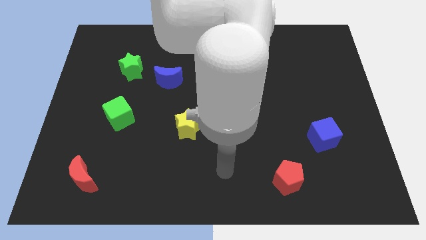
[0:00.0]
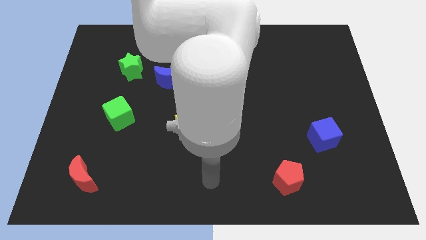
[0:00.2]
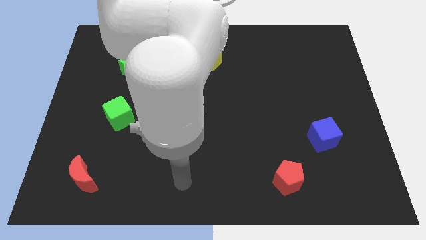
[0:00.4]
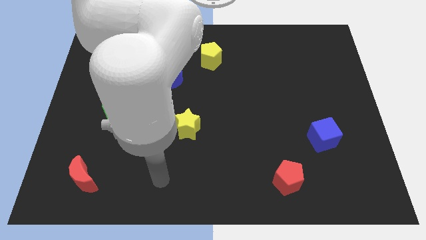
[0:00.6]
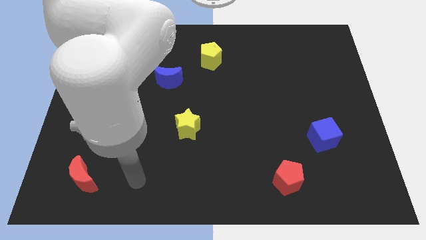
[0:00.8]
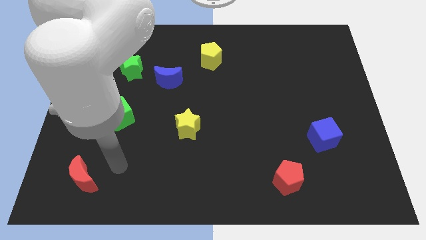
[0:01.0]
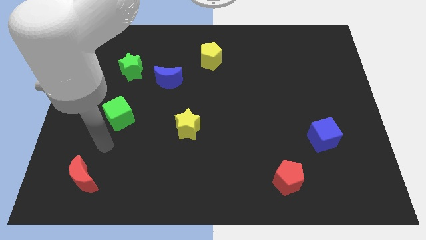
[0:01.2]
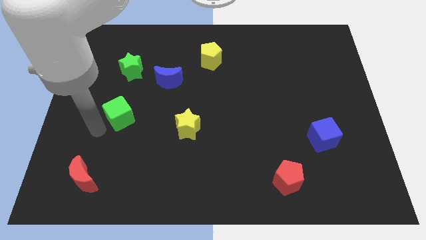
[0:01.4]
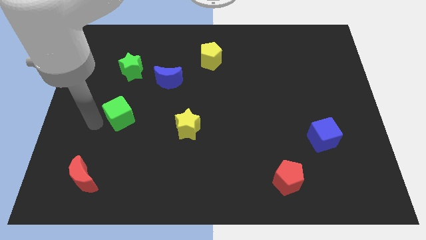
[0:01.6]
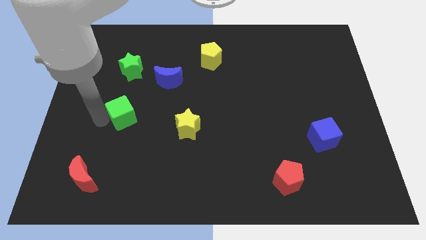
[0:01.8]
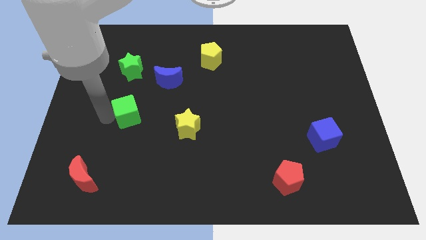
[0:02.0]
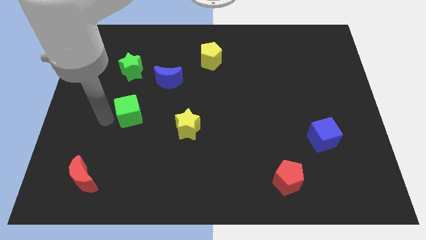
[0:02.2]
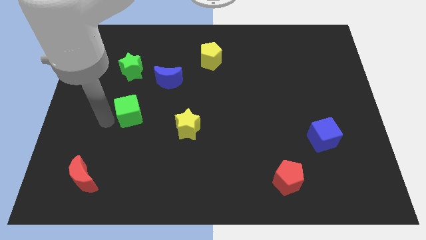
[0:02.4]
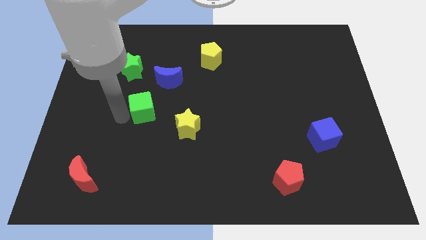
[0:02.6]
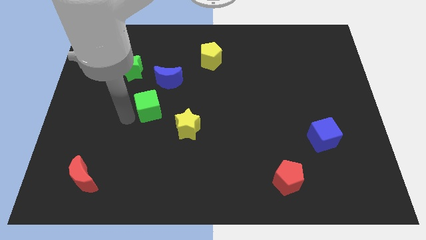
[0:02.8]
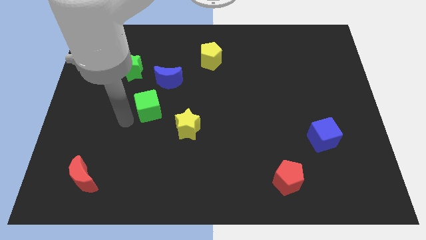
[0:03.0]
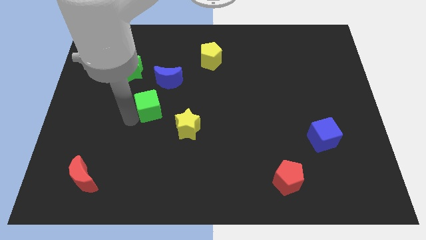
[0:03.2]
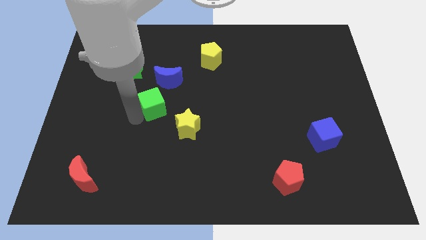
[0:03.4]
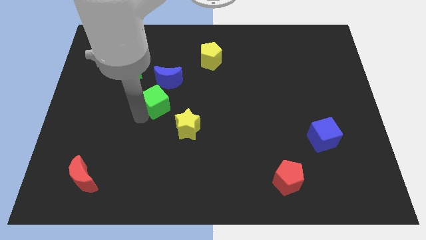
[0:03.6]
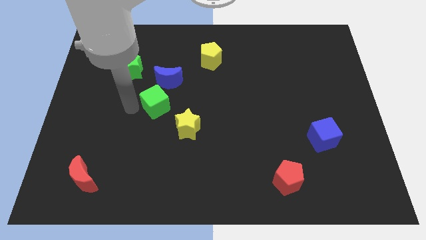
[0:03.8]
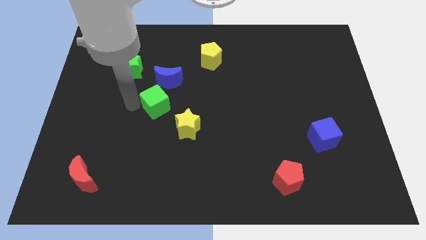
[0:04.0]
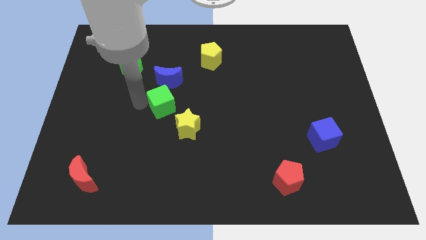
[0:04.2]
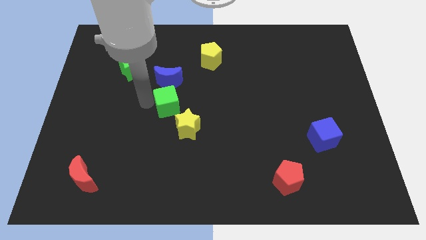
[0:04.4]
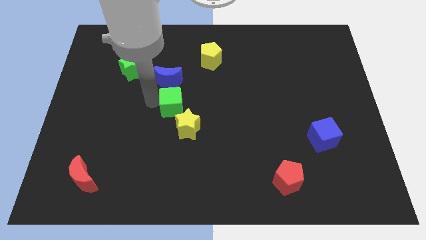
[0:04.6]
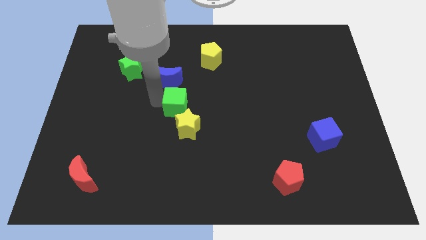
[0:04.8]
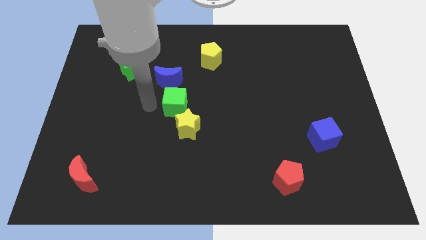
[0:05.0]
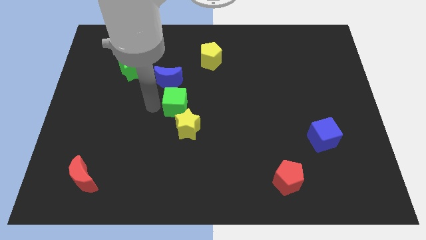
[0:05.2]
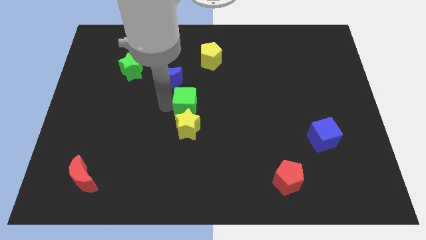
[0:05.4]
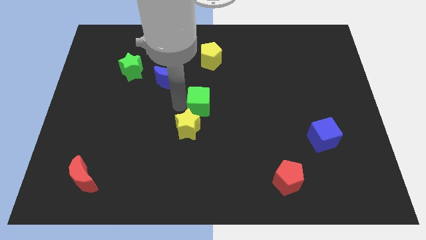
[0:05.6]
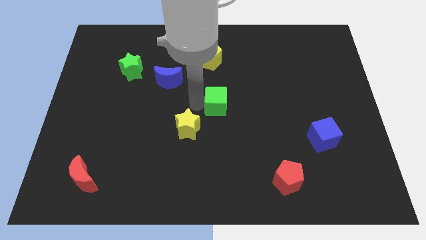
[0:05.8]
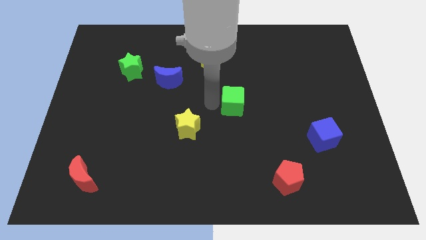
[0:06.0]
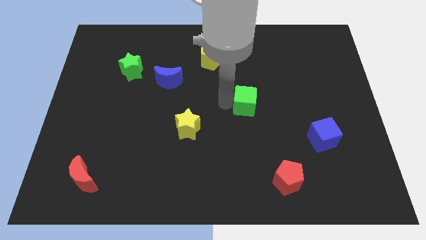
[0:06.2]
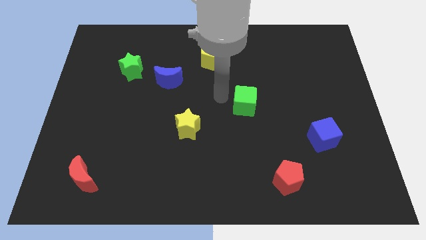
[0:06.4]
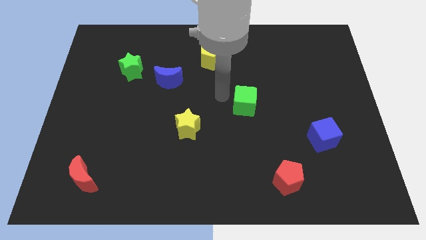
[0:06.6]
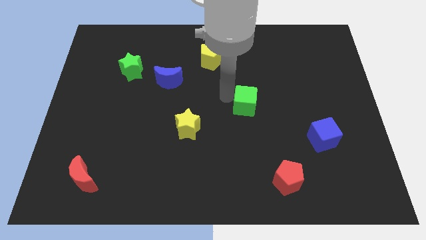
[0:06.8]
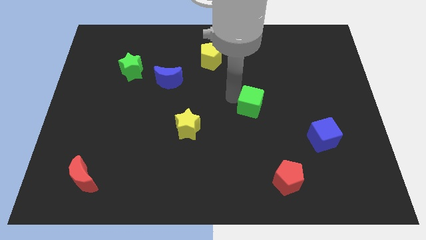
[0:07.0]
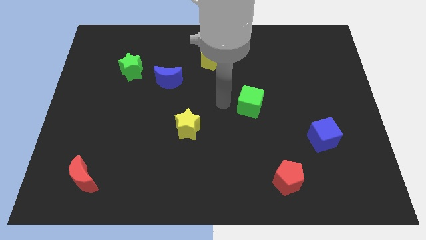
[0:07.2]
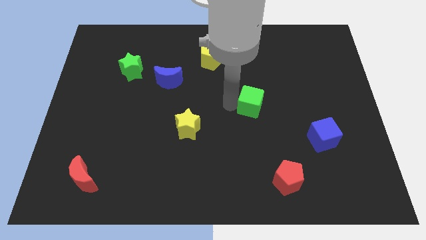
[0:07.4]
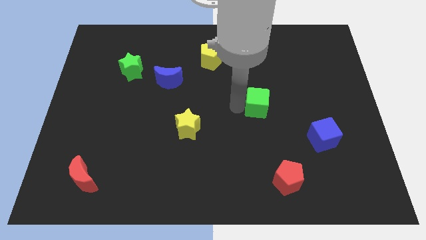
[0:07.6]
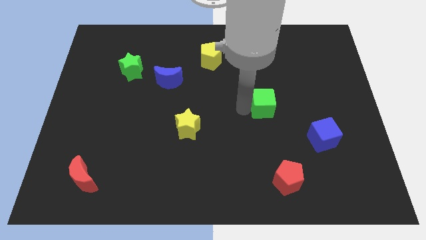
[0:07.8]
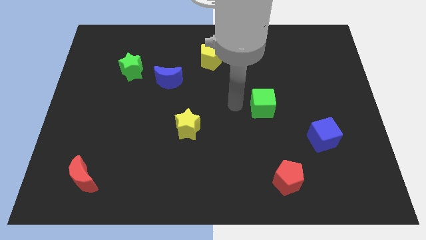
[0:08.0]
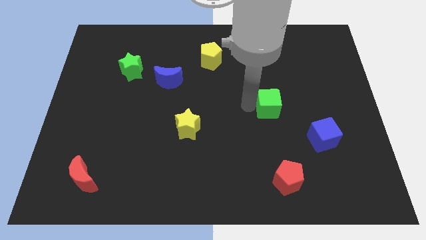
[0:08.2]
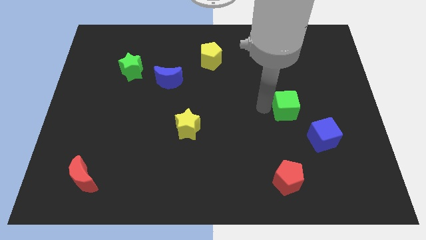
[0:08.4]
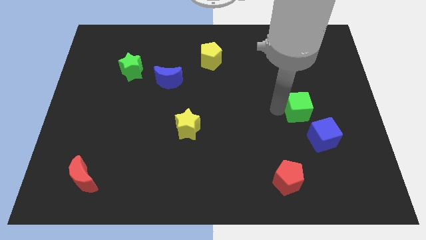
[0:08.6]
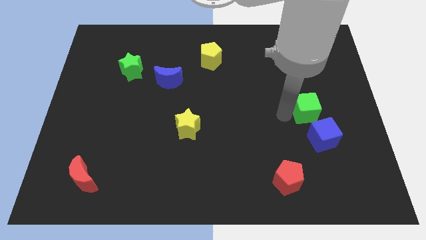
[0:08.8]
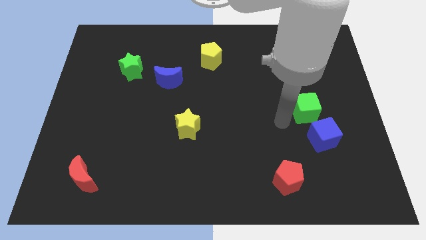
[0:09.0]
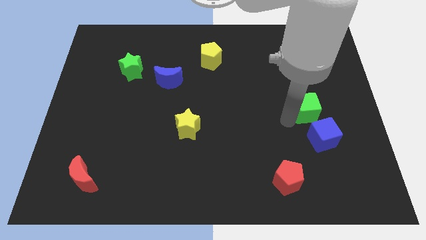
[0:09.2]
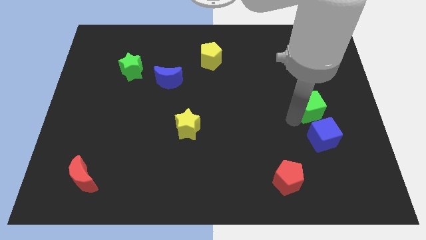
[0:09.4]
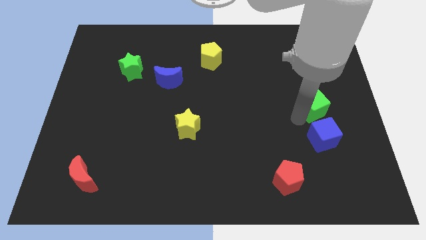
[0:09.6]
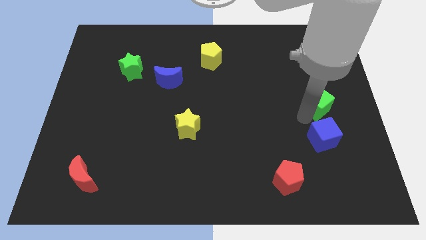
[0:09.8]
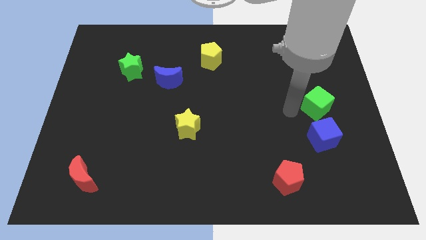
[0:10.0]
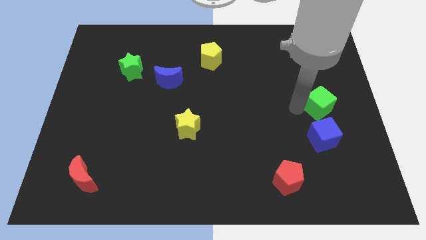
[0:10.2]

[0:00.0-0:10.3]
push the green cube to the right side of the board

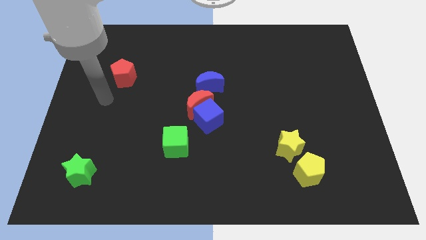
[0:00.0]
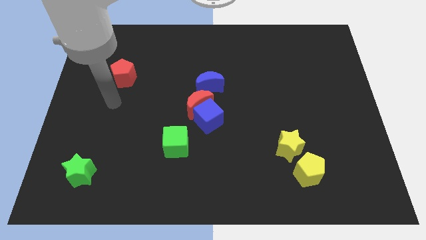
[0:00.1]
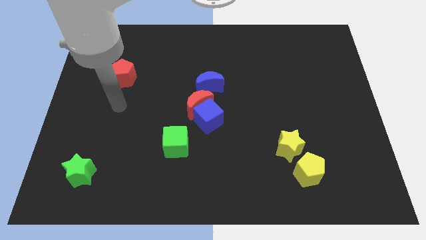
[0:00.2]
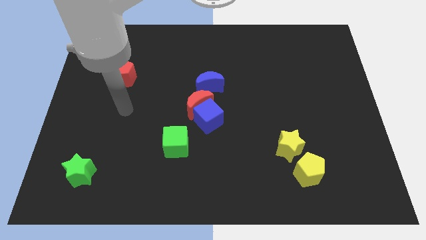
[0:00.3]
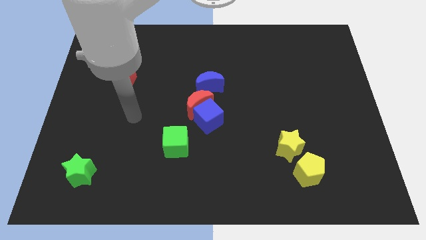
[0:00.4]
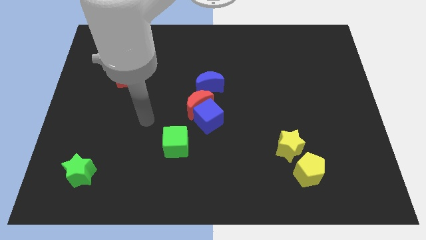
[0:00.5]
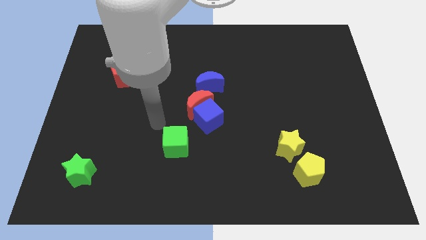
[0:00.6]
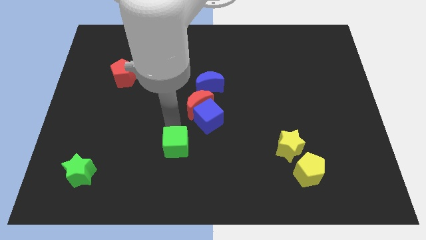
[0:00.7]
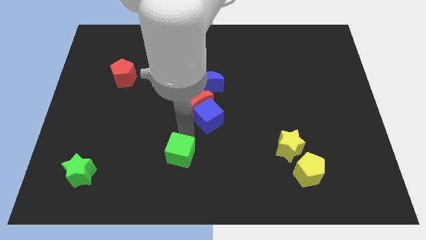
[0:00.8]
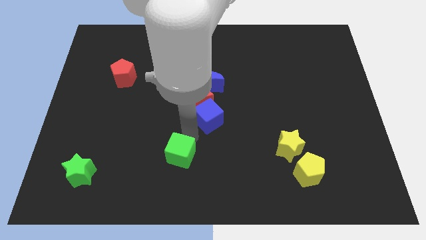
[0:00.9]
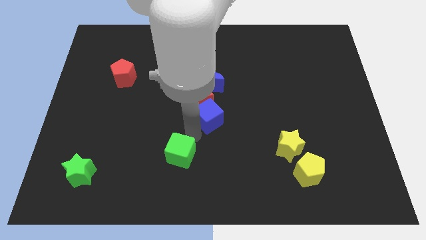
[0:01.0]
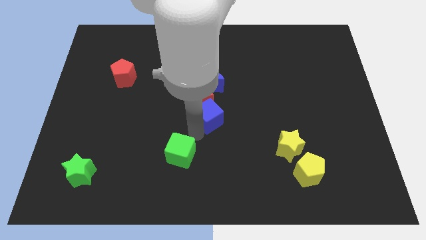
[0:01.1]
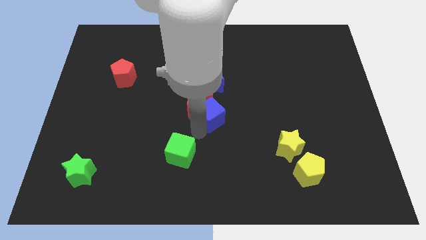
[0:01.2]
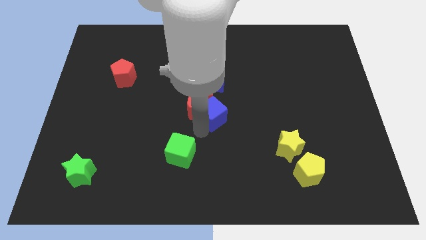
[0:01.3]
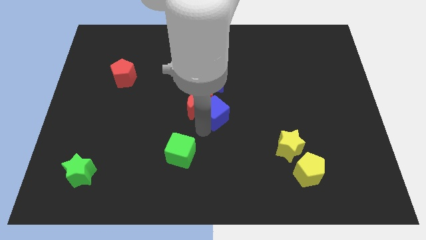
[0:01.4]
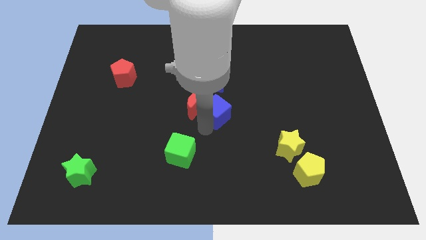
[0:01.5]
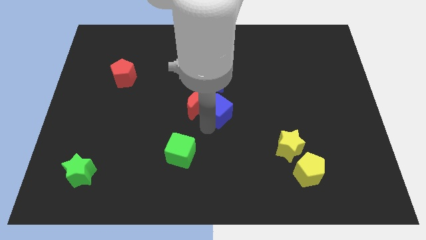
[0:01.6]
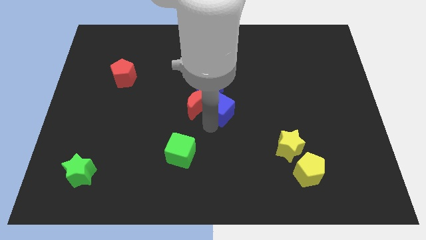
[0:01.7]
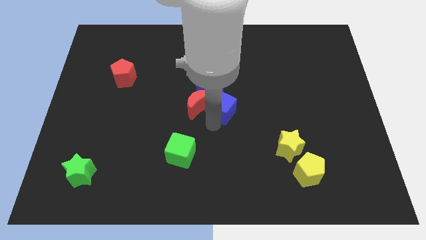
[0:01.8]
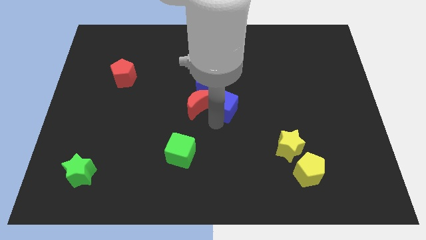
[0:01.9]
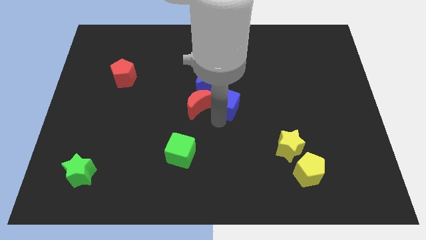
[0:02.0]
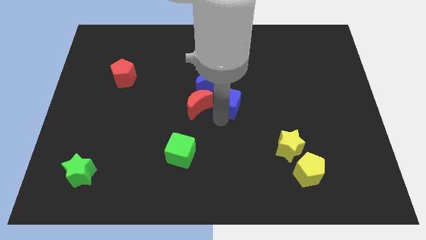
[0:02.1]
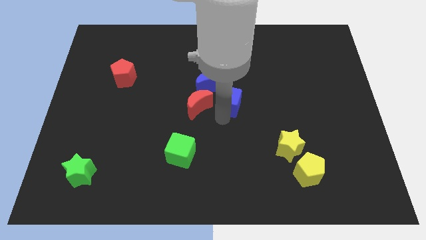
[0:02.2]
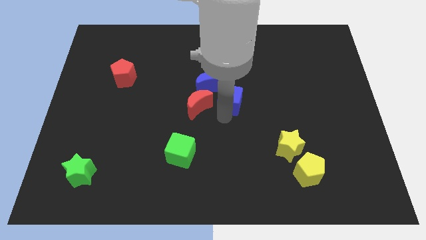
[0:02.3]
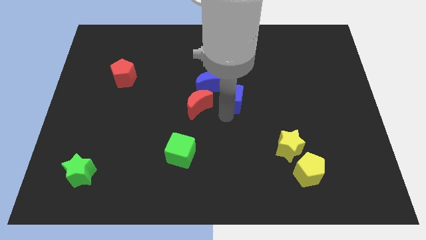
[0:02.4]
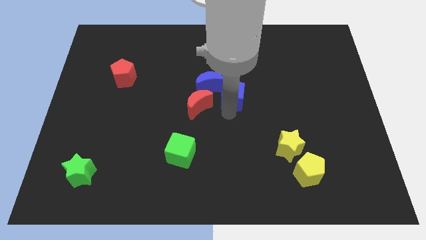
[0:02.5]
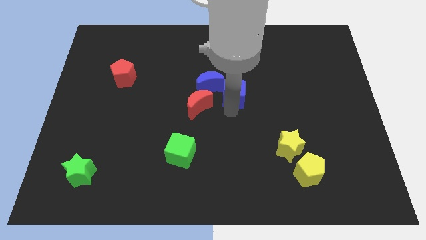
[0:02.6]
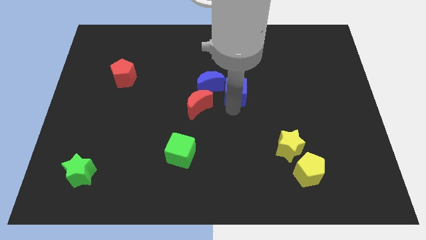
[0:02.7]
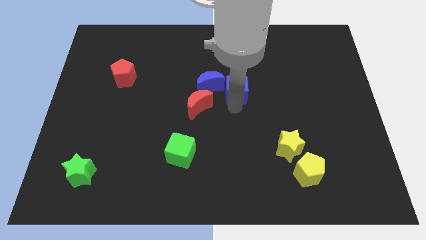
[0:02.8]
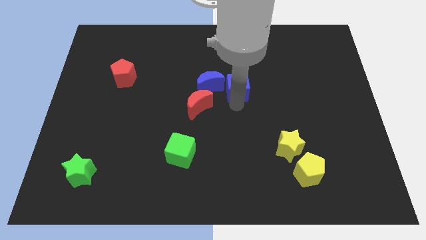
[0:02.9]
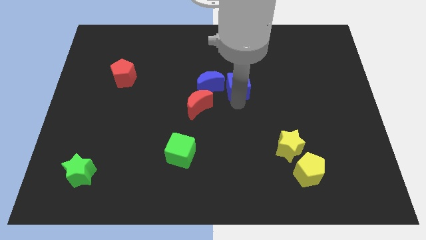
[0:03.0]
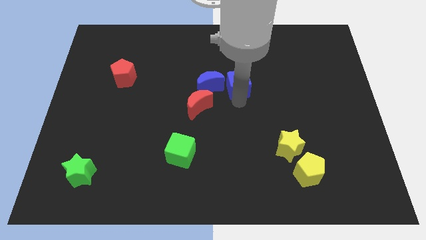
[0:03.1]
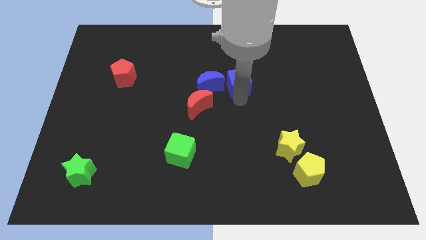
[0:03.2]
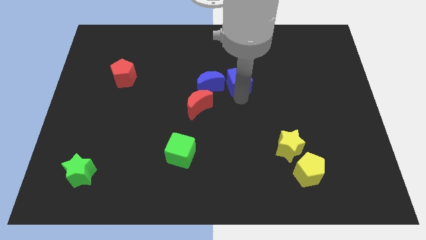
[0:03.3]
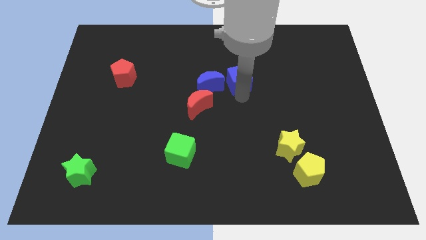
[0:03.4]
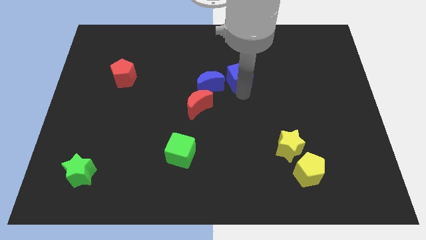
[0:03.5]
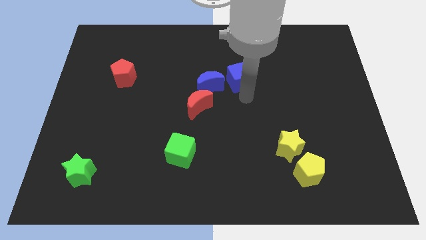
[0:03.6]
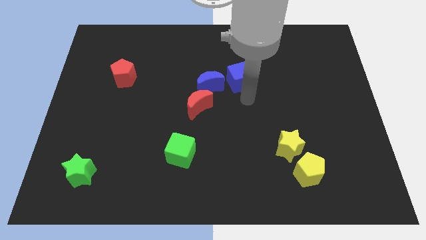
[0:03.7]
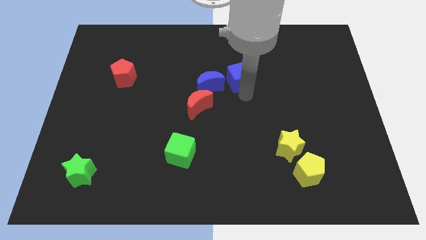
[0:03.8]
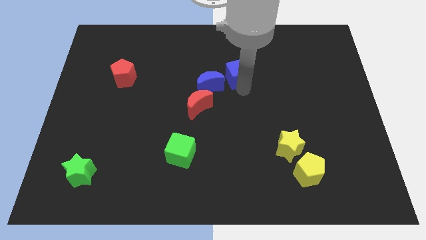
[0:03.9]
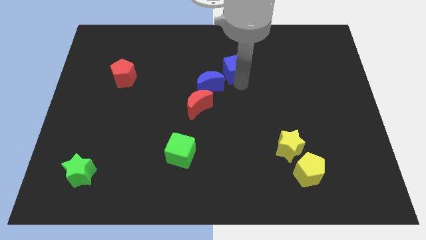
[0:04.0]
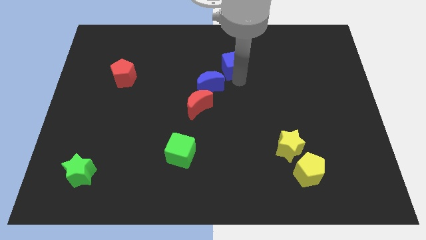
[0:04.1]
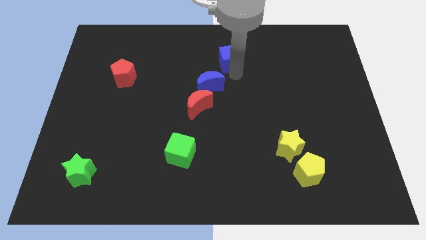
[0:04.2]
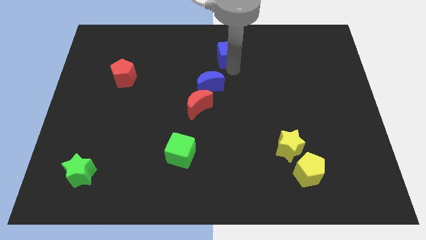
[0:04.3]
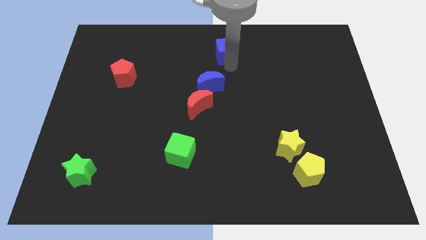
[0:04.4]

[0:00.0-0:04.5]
slide the blue cube to the towards your base
